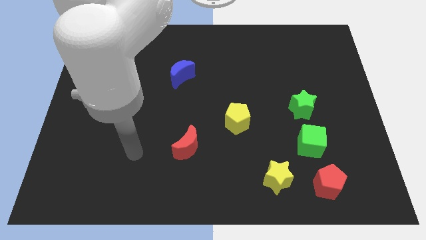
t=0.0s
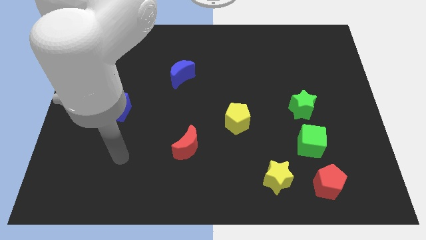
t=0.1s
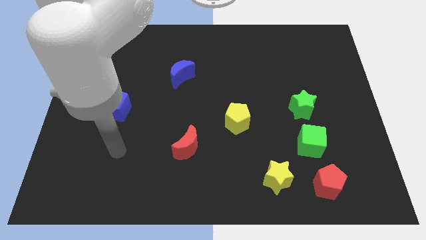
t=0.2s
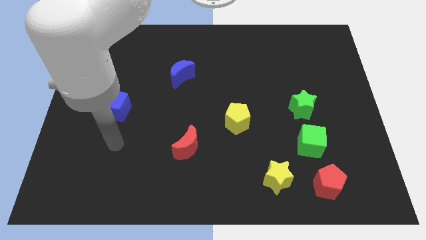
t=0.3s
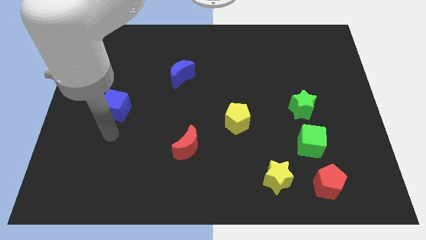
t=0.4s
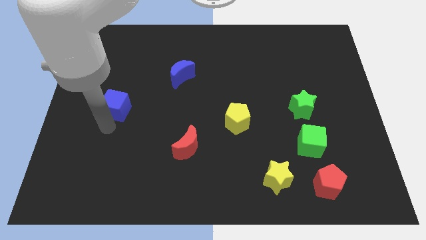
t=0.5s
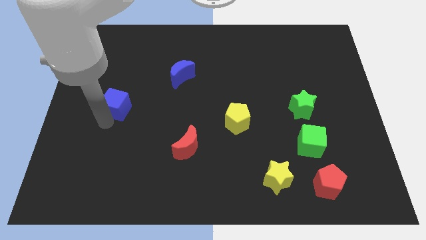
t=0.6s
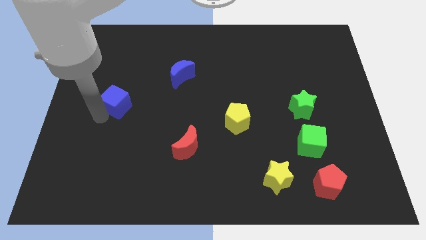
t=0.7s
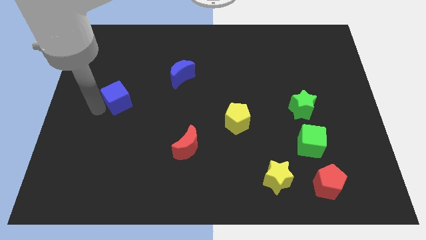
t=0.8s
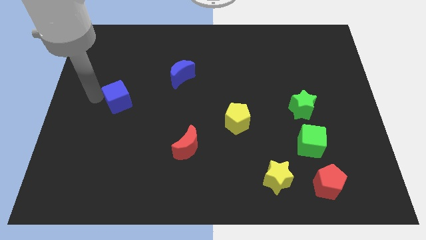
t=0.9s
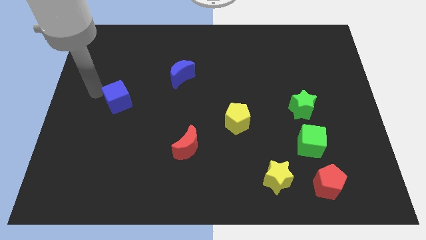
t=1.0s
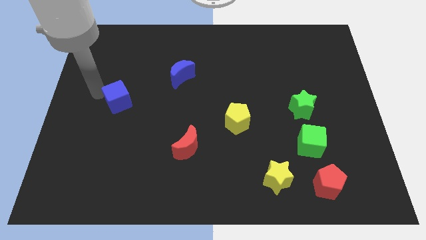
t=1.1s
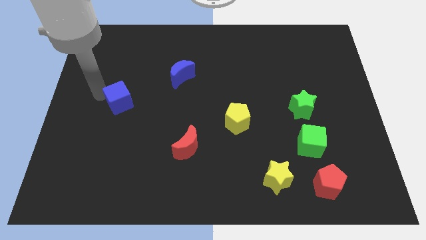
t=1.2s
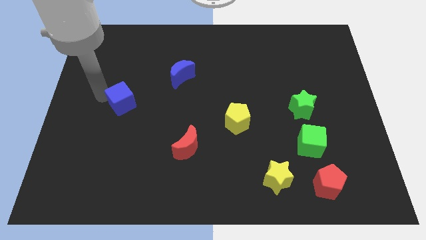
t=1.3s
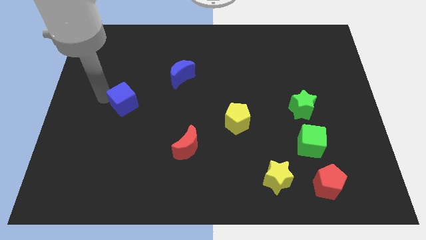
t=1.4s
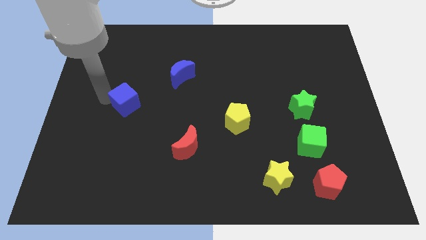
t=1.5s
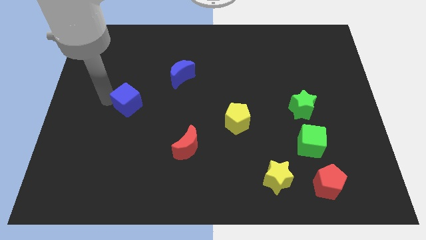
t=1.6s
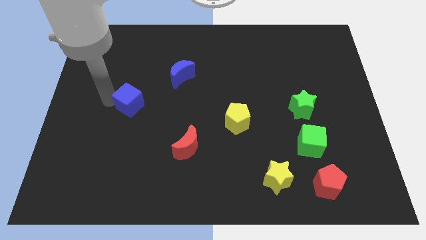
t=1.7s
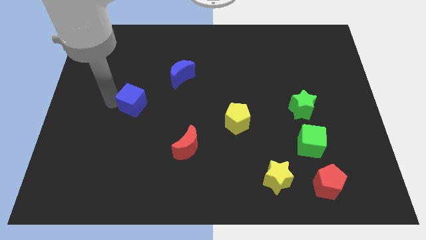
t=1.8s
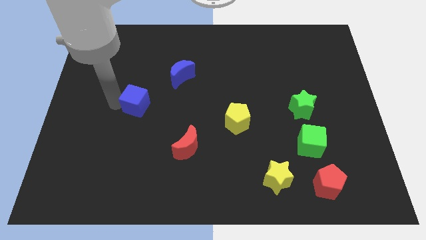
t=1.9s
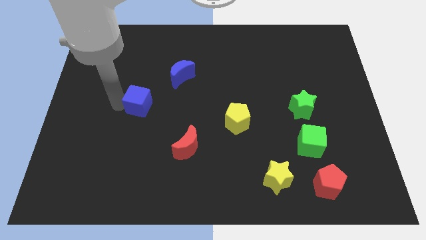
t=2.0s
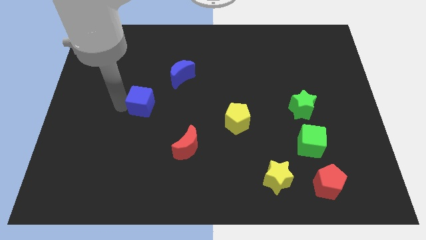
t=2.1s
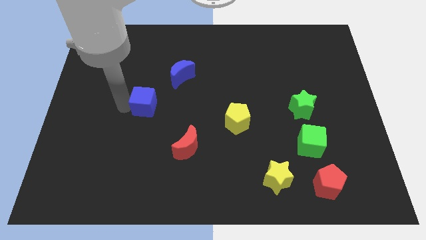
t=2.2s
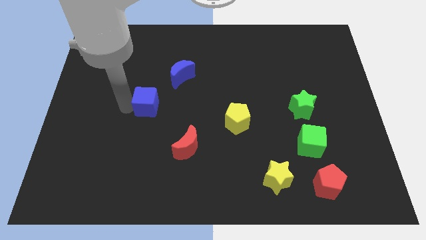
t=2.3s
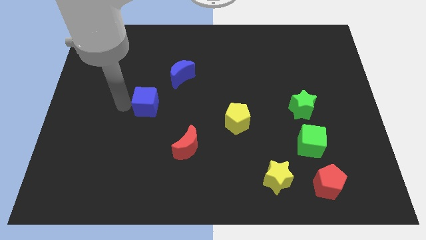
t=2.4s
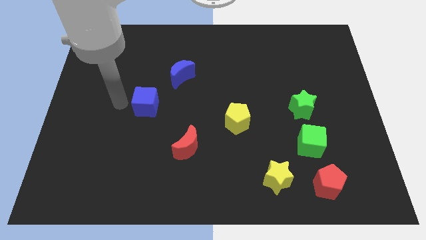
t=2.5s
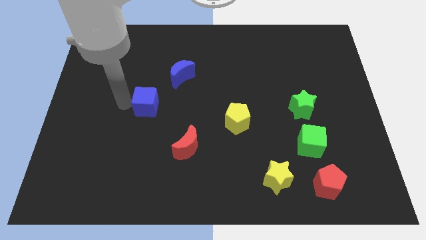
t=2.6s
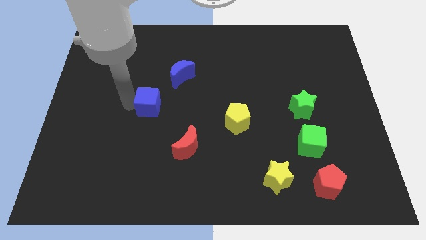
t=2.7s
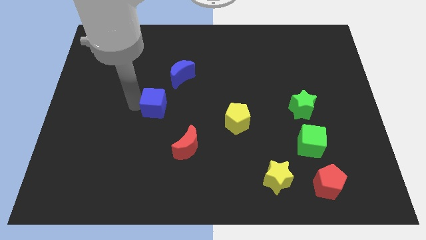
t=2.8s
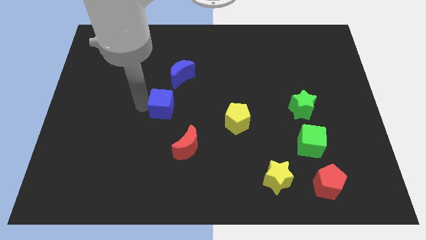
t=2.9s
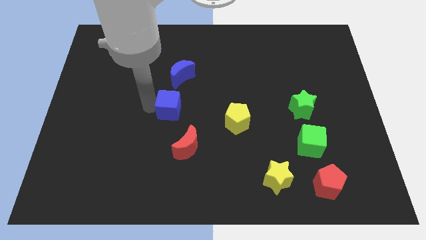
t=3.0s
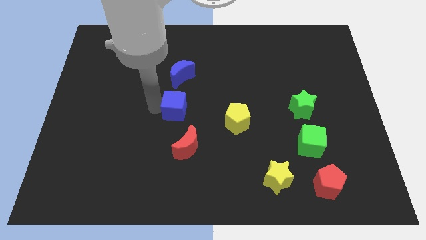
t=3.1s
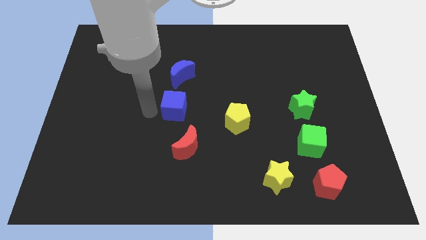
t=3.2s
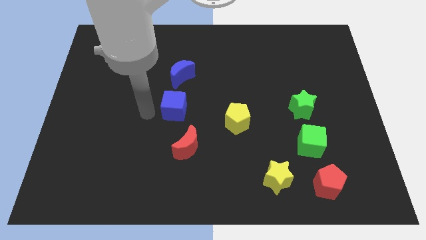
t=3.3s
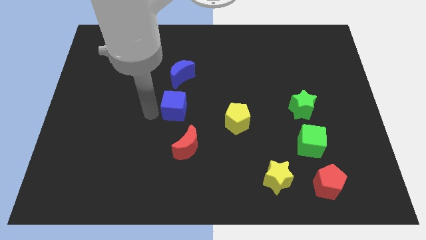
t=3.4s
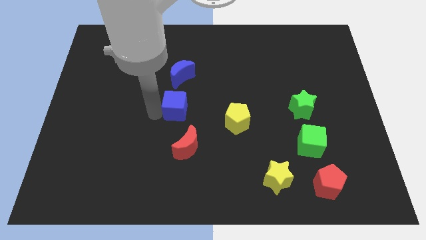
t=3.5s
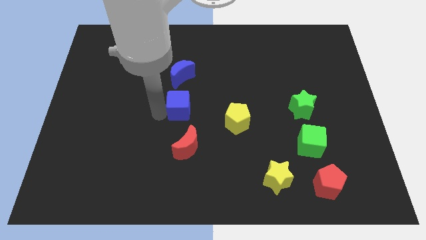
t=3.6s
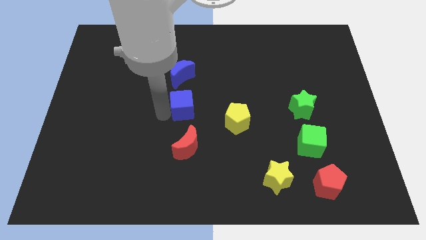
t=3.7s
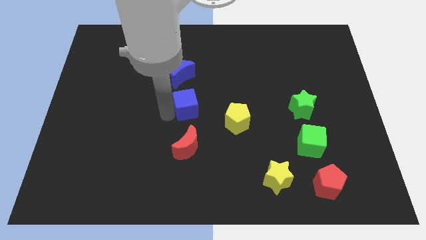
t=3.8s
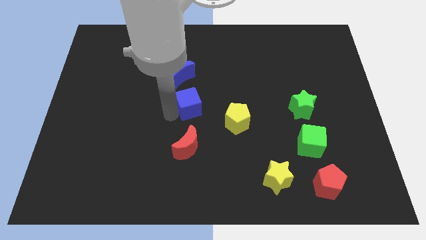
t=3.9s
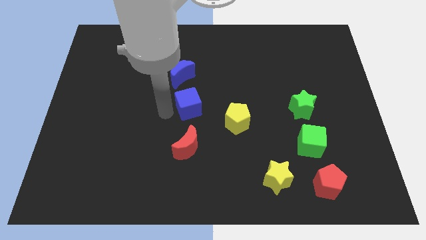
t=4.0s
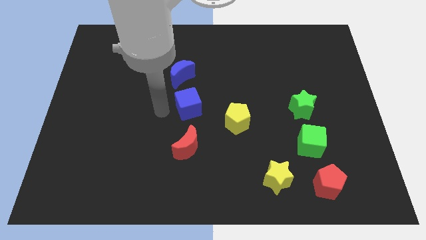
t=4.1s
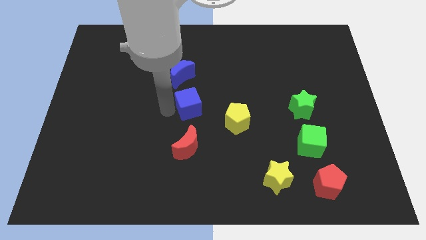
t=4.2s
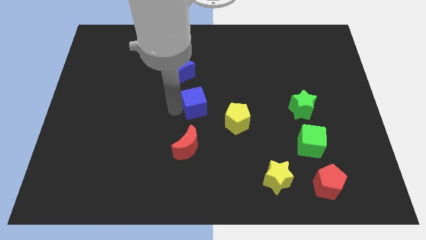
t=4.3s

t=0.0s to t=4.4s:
move the blue cube to the top left of the yellow pentagon

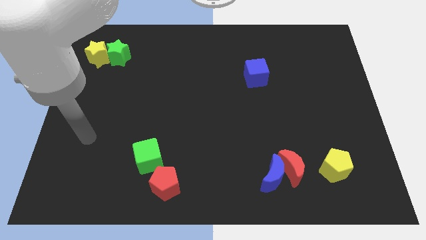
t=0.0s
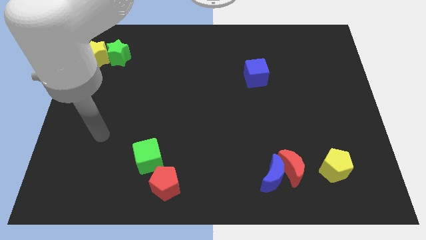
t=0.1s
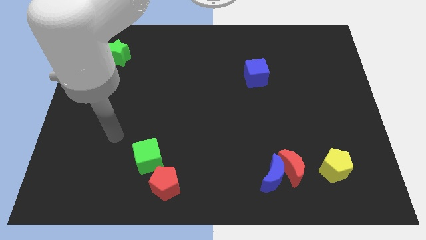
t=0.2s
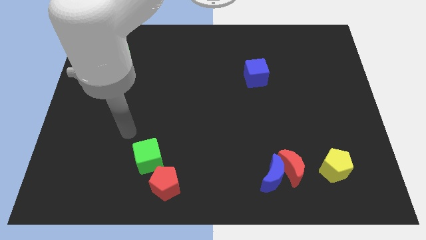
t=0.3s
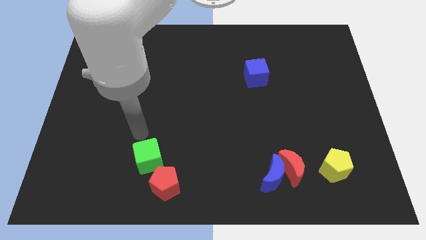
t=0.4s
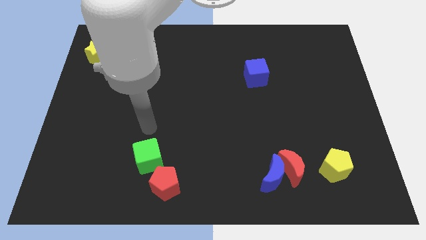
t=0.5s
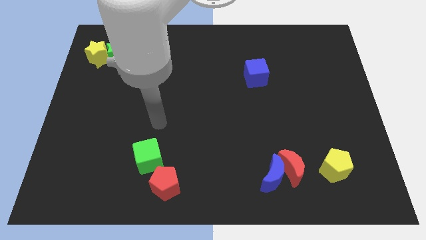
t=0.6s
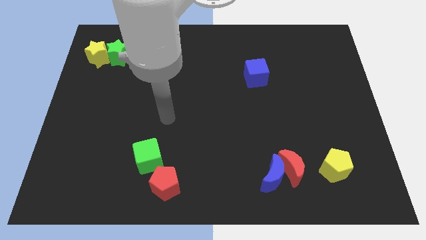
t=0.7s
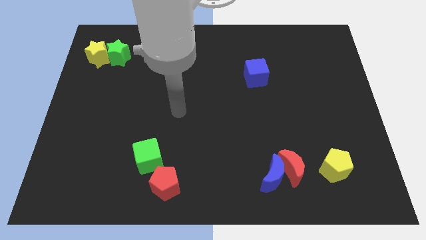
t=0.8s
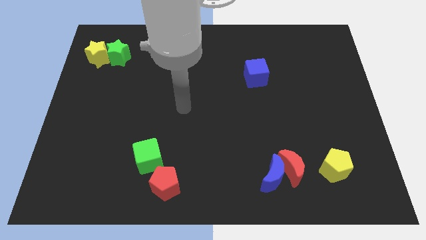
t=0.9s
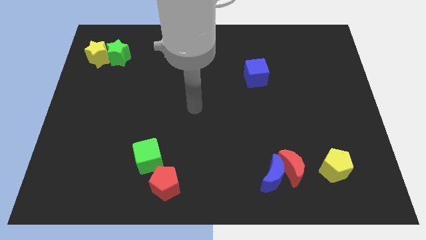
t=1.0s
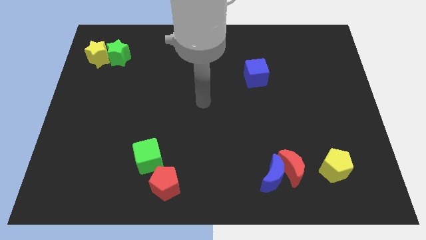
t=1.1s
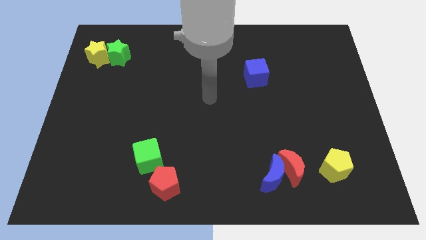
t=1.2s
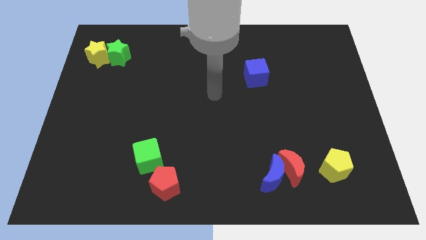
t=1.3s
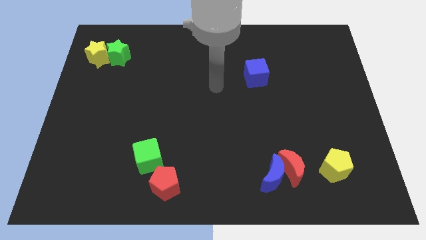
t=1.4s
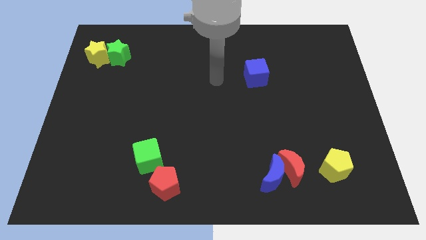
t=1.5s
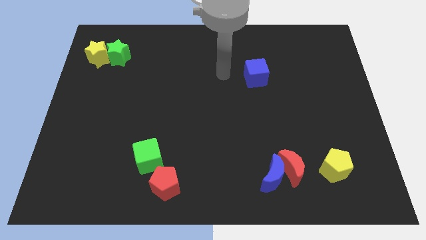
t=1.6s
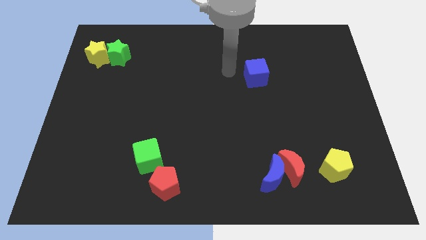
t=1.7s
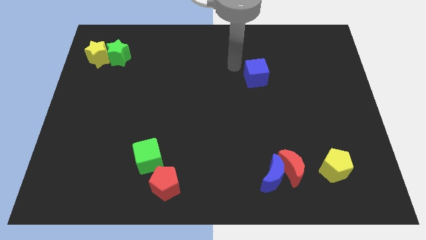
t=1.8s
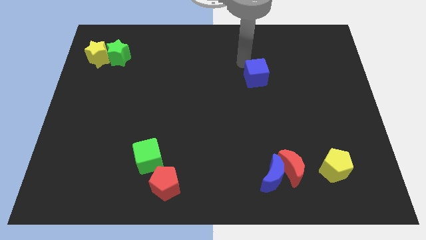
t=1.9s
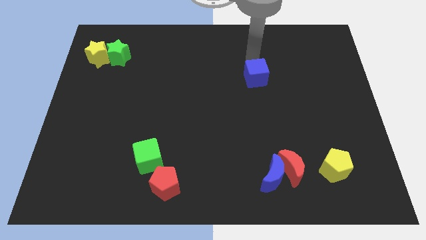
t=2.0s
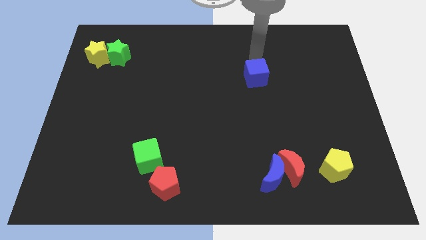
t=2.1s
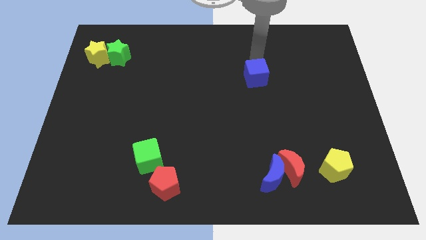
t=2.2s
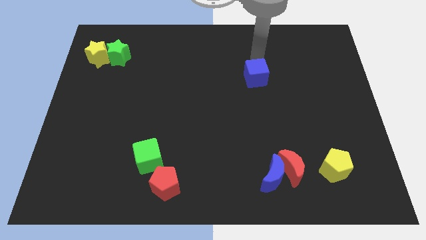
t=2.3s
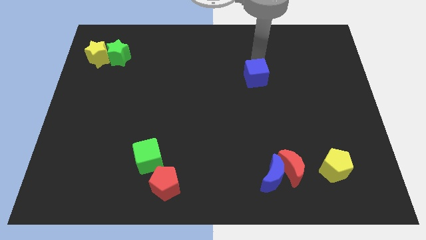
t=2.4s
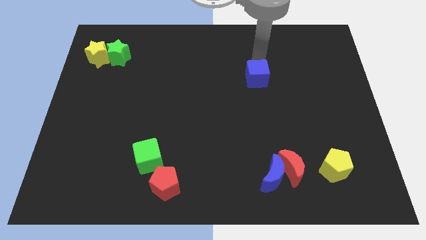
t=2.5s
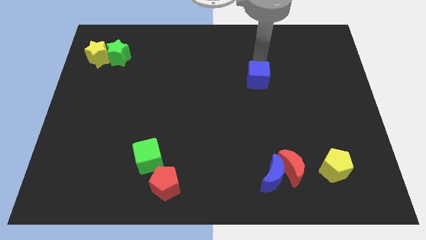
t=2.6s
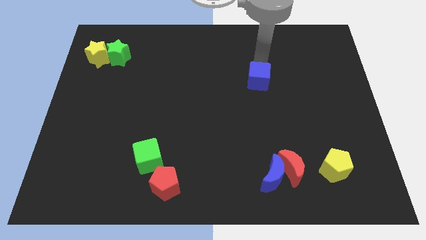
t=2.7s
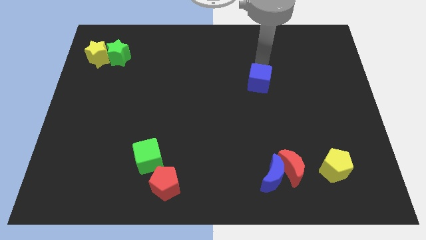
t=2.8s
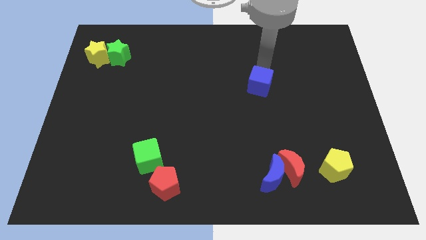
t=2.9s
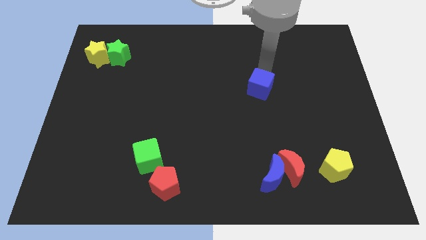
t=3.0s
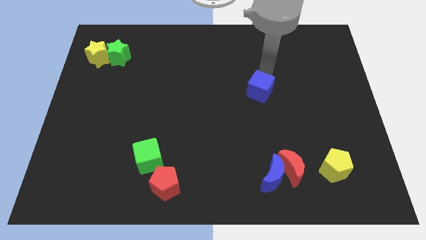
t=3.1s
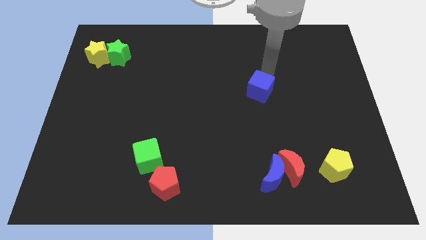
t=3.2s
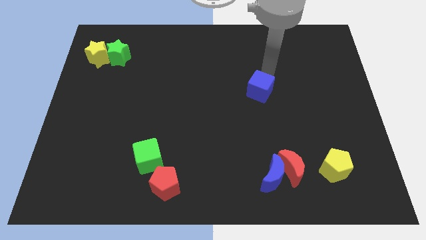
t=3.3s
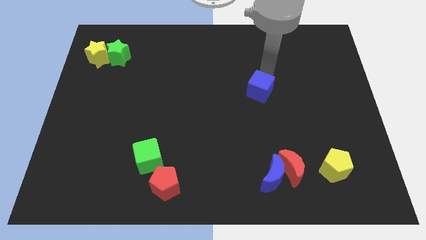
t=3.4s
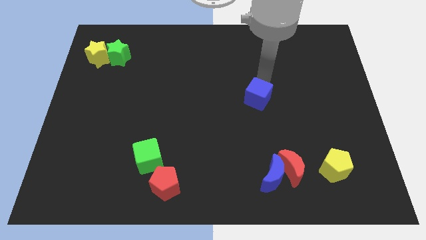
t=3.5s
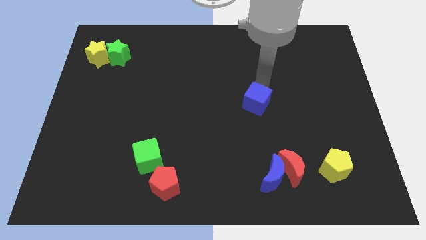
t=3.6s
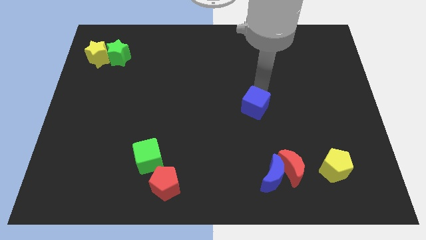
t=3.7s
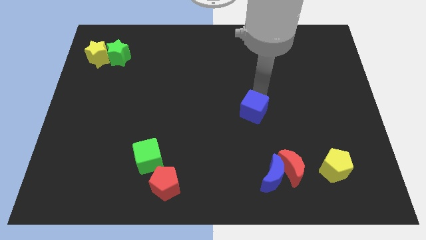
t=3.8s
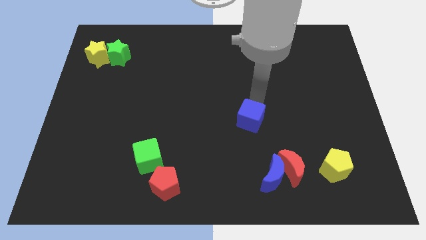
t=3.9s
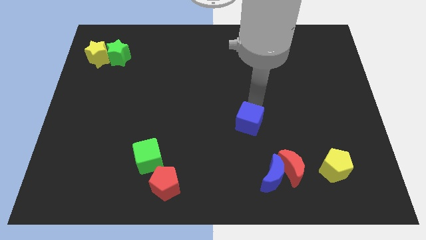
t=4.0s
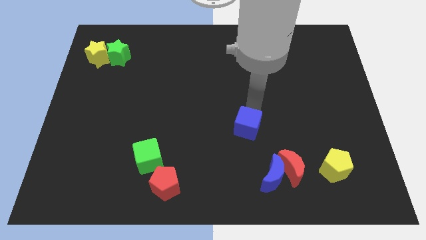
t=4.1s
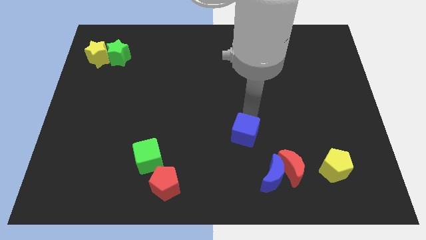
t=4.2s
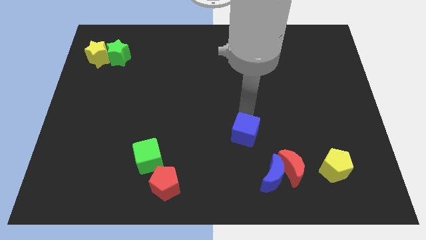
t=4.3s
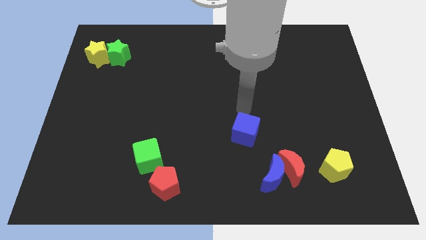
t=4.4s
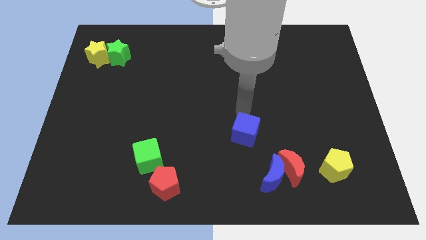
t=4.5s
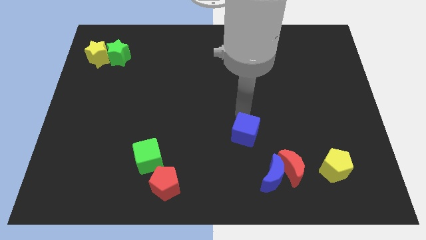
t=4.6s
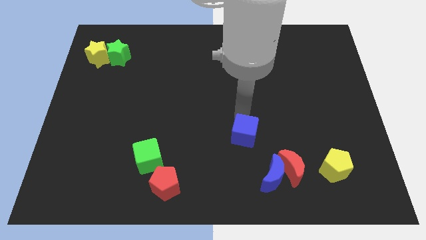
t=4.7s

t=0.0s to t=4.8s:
put the blue cube to the top left of the blue moon
